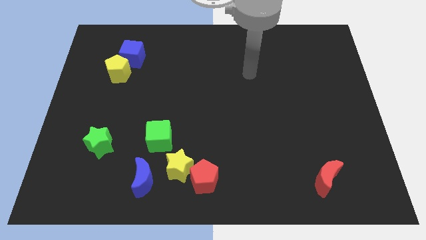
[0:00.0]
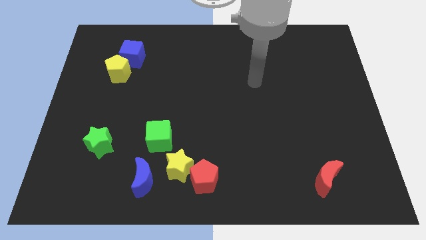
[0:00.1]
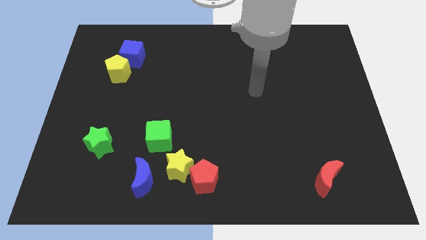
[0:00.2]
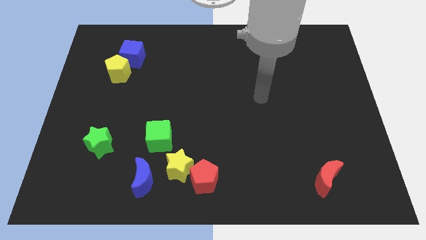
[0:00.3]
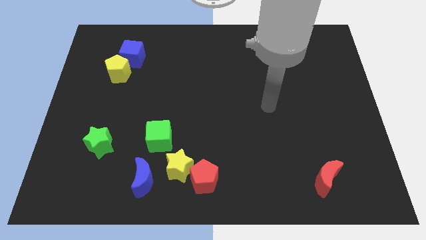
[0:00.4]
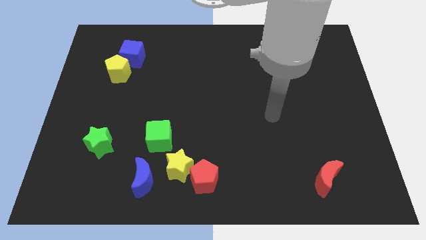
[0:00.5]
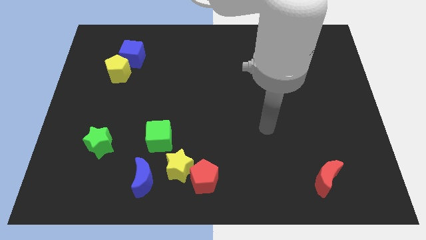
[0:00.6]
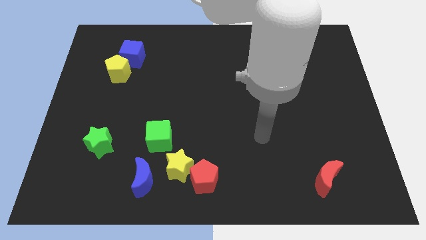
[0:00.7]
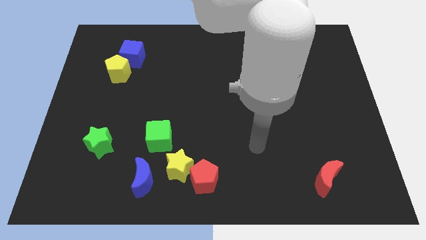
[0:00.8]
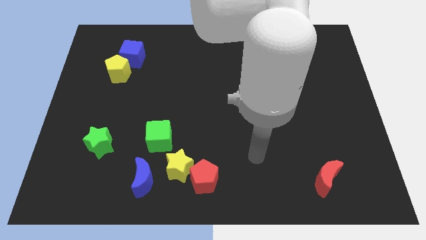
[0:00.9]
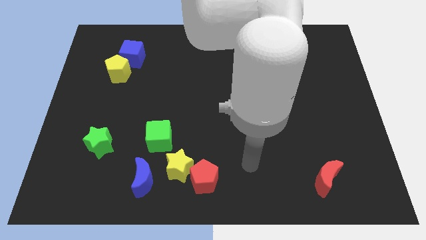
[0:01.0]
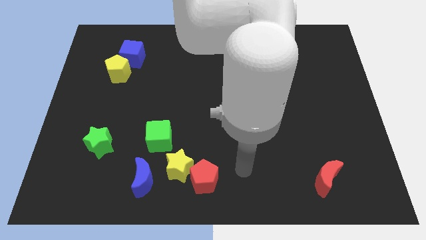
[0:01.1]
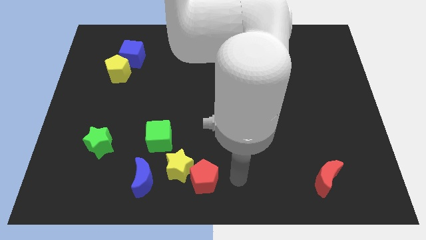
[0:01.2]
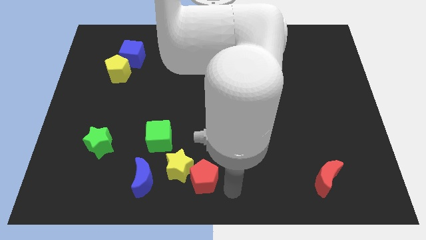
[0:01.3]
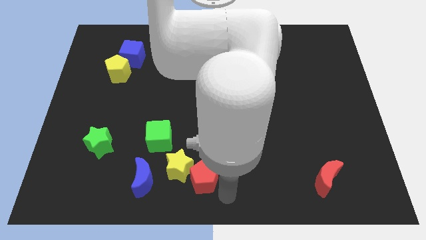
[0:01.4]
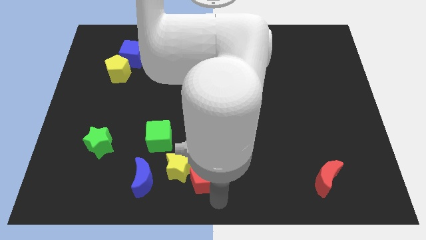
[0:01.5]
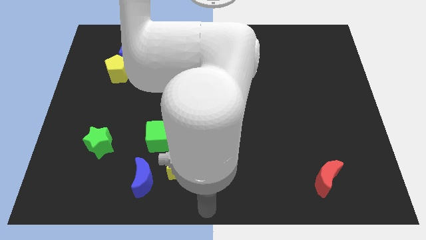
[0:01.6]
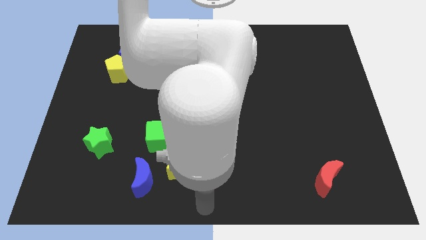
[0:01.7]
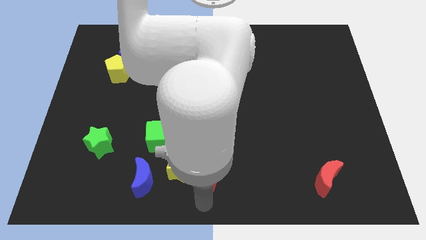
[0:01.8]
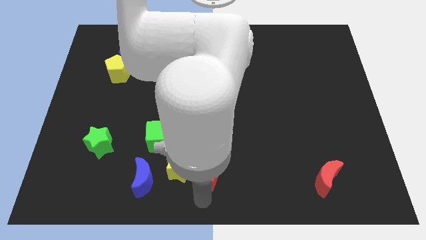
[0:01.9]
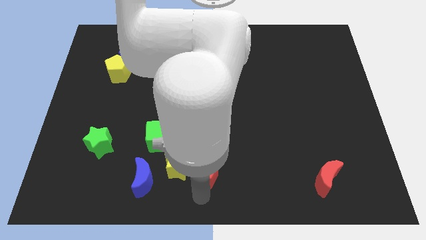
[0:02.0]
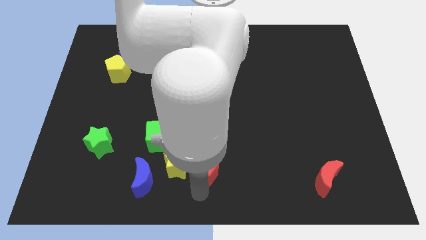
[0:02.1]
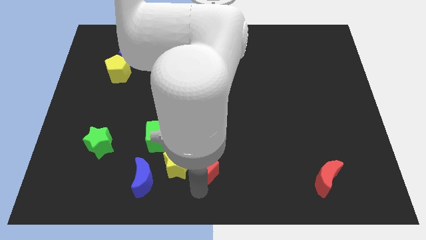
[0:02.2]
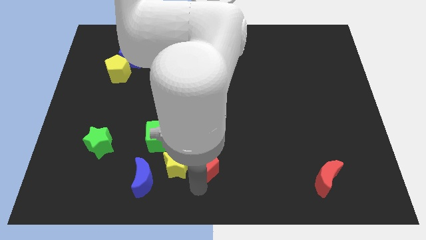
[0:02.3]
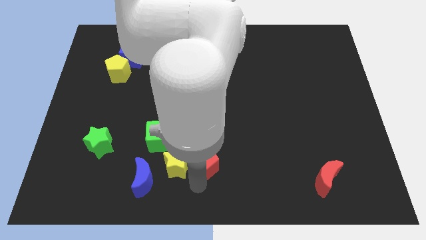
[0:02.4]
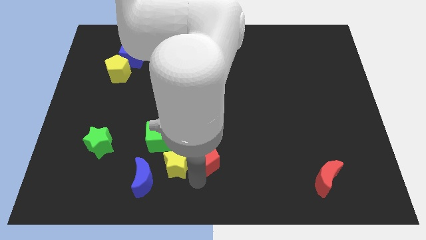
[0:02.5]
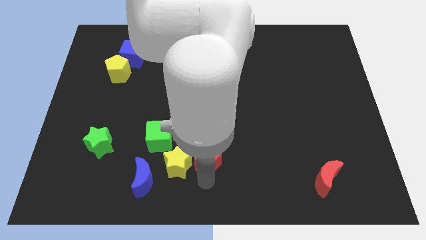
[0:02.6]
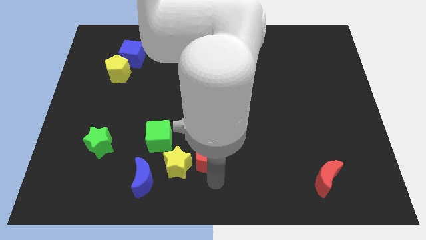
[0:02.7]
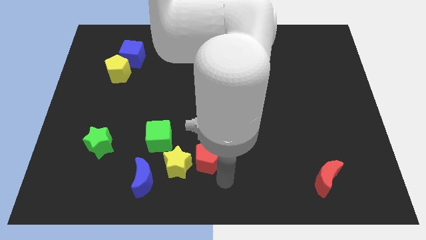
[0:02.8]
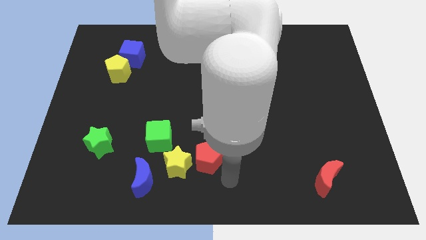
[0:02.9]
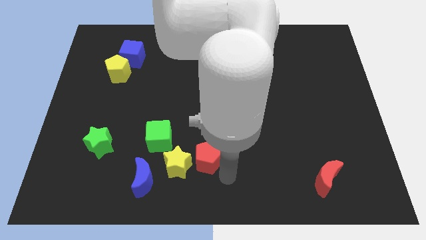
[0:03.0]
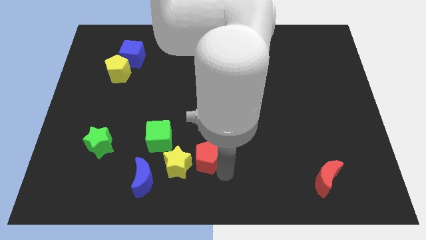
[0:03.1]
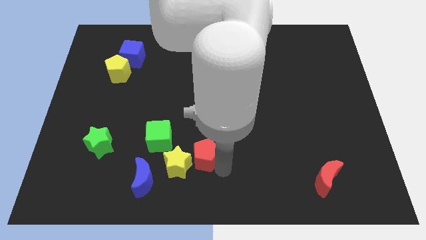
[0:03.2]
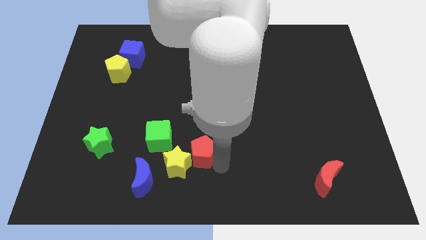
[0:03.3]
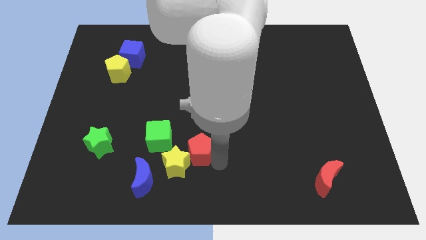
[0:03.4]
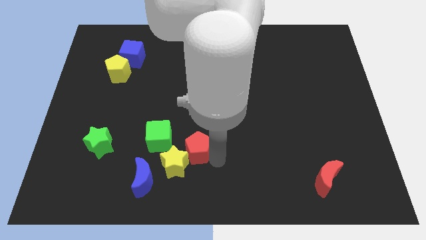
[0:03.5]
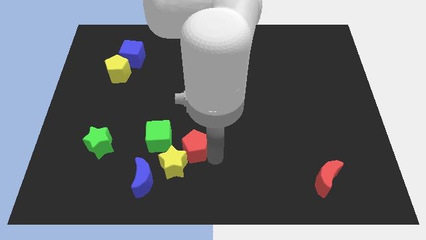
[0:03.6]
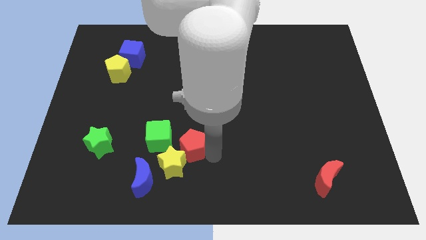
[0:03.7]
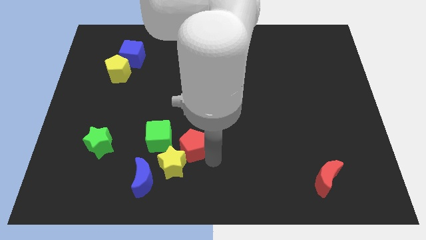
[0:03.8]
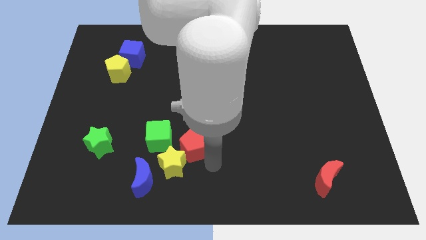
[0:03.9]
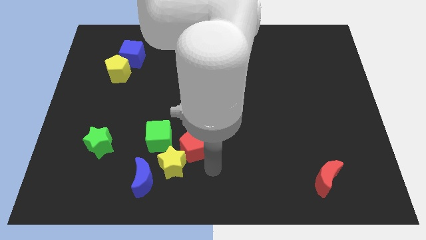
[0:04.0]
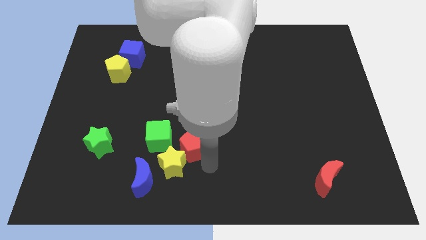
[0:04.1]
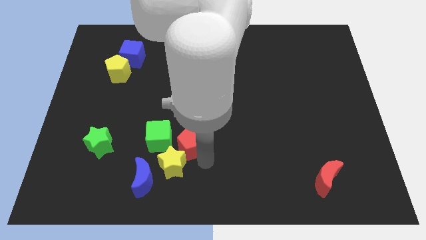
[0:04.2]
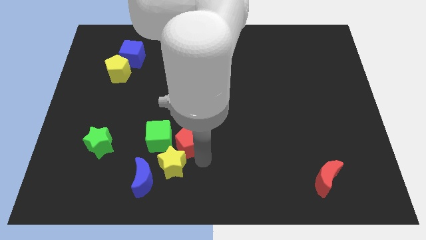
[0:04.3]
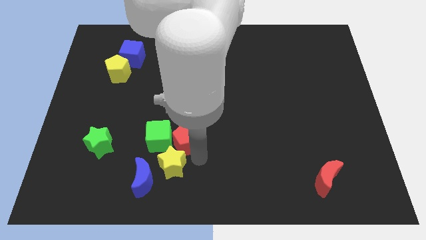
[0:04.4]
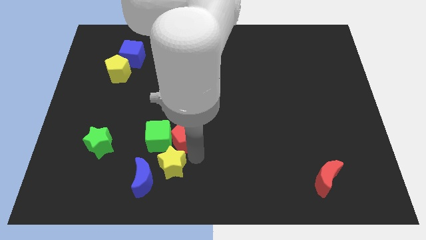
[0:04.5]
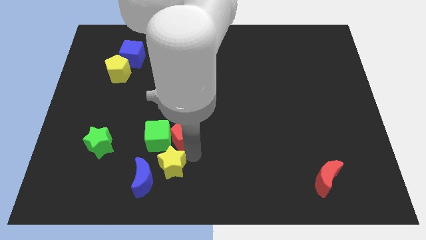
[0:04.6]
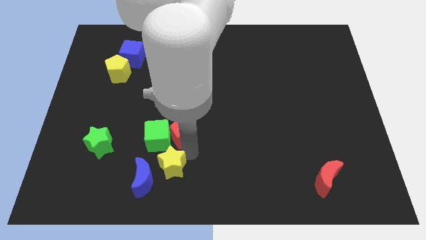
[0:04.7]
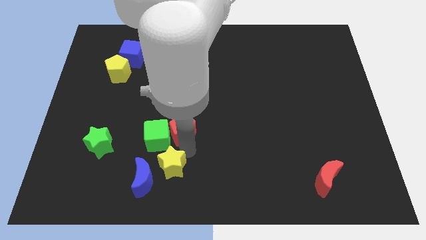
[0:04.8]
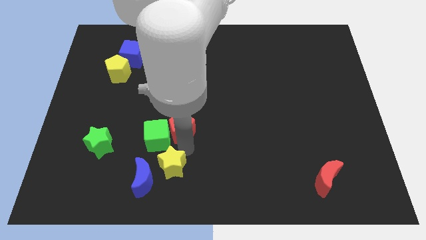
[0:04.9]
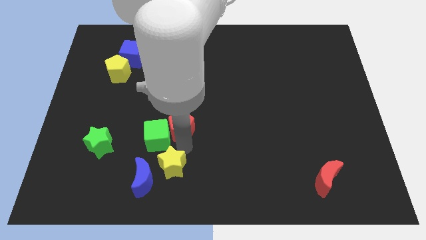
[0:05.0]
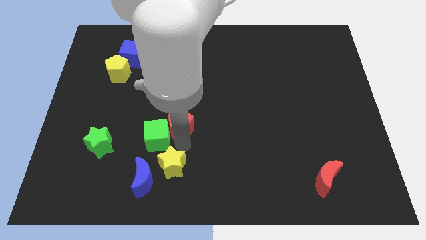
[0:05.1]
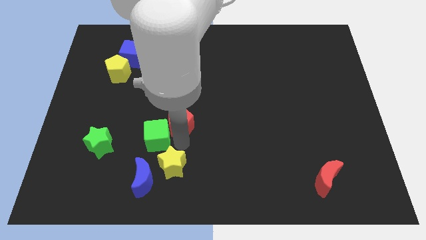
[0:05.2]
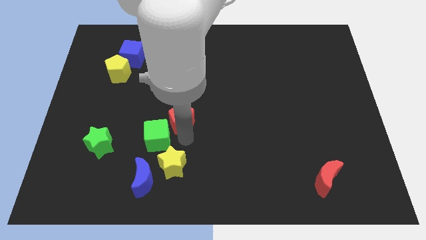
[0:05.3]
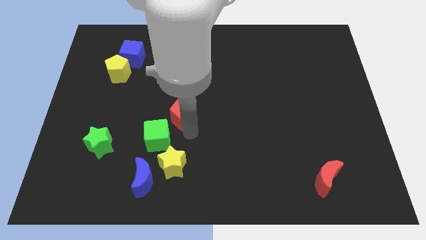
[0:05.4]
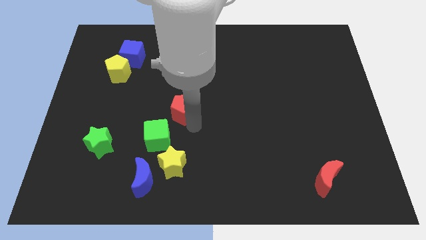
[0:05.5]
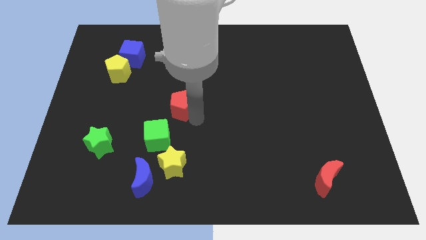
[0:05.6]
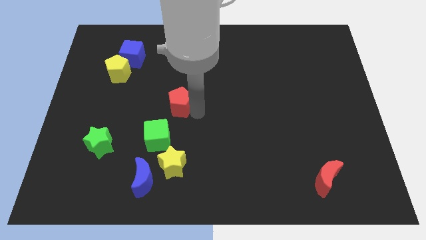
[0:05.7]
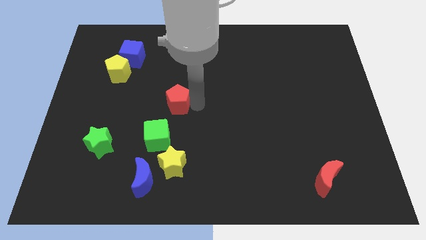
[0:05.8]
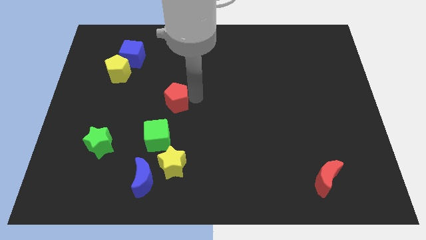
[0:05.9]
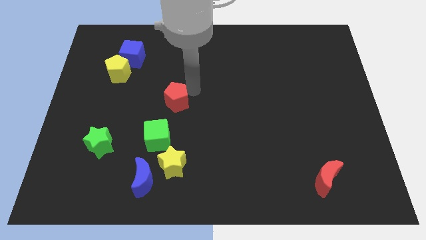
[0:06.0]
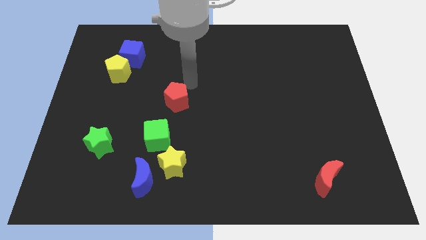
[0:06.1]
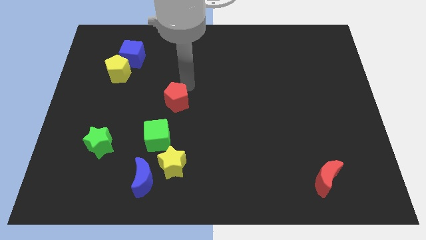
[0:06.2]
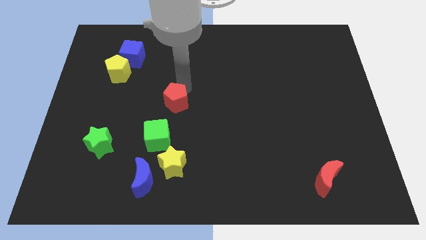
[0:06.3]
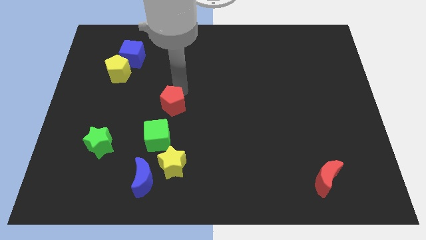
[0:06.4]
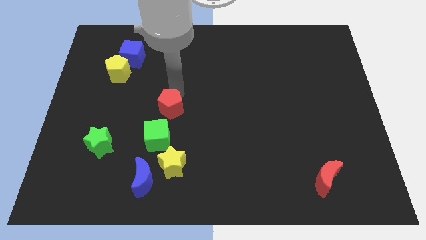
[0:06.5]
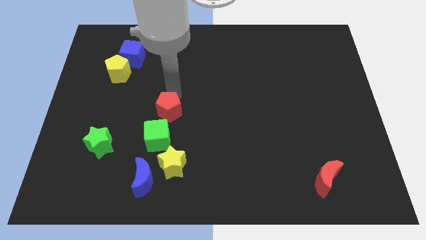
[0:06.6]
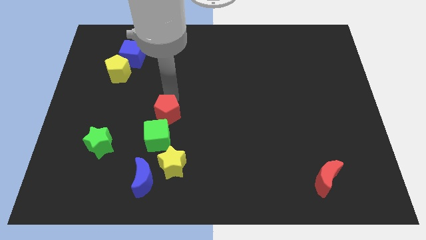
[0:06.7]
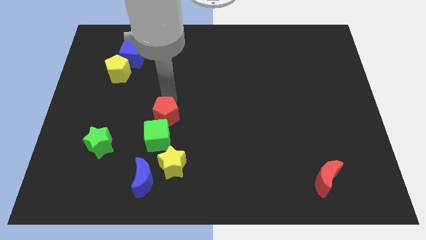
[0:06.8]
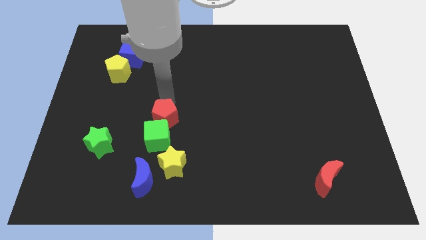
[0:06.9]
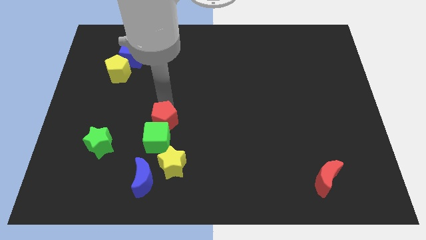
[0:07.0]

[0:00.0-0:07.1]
slide the red pentagon above the blue moon

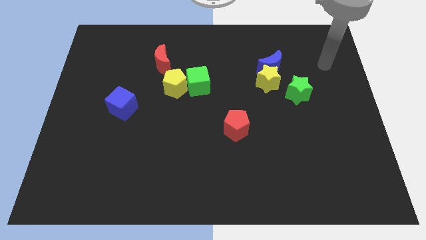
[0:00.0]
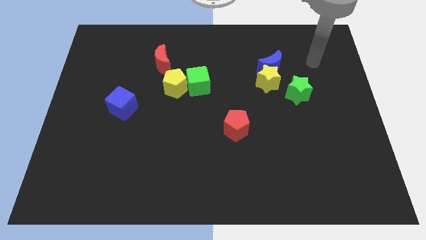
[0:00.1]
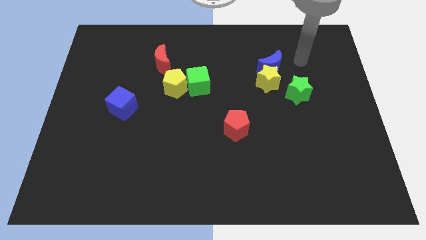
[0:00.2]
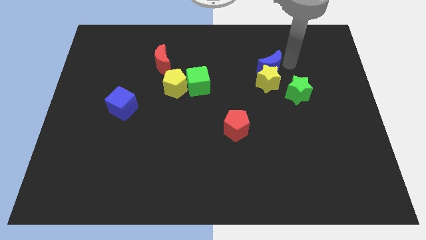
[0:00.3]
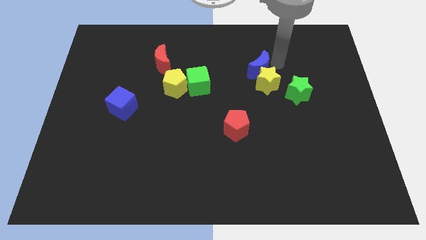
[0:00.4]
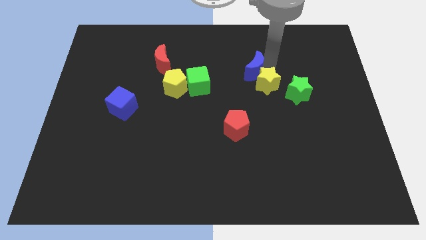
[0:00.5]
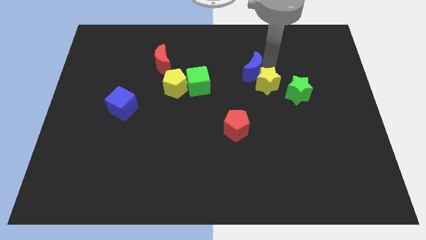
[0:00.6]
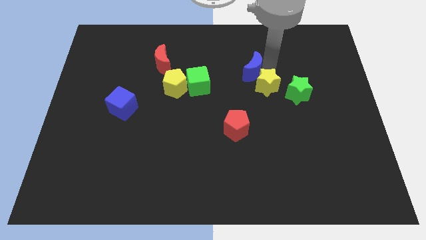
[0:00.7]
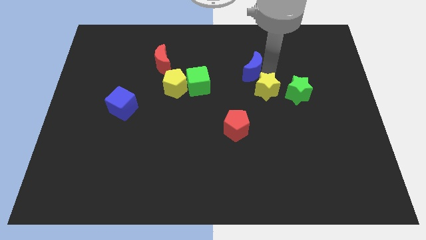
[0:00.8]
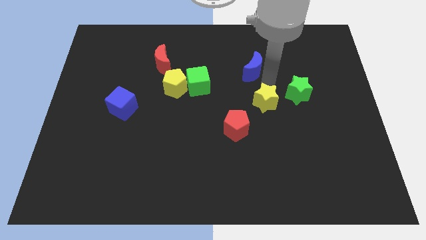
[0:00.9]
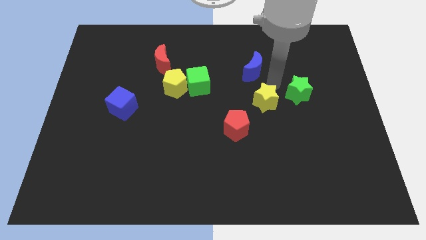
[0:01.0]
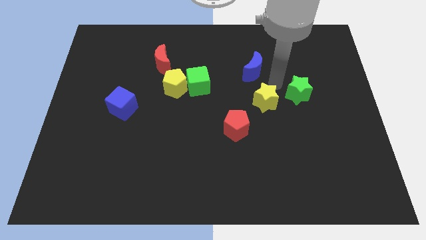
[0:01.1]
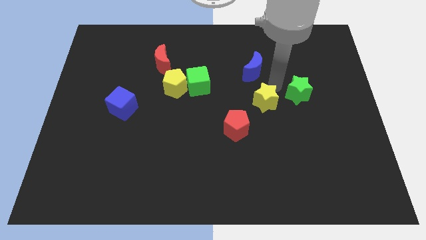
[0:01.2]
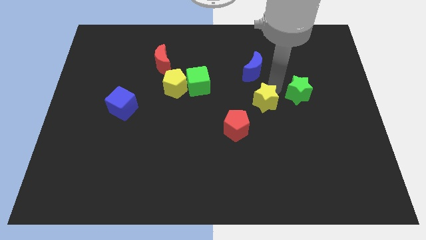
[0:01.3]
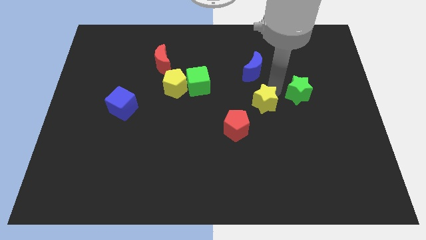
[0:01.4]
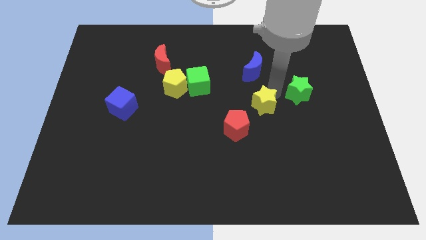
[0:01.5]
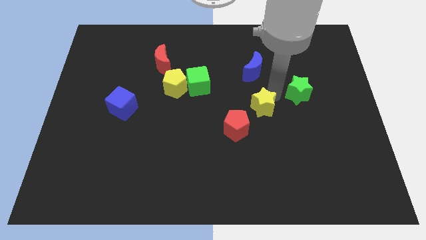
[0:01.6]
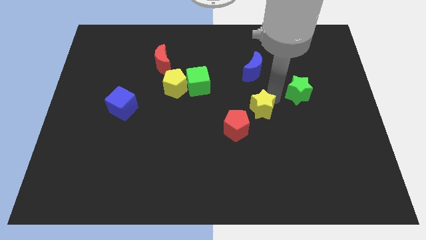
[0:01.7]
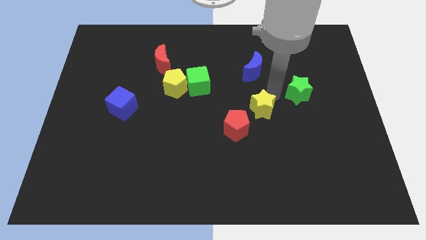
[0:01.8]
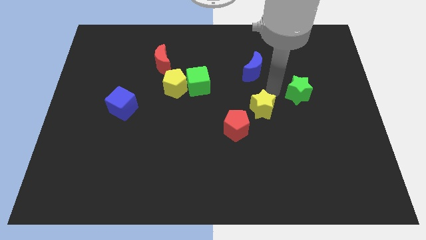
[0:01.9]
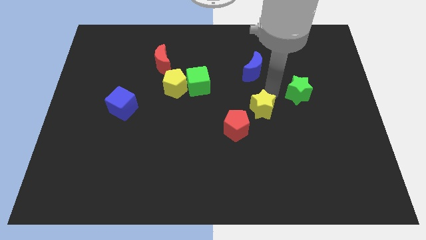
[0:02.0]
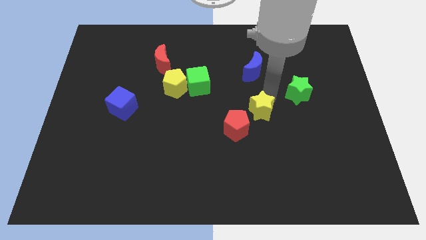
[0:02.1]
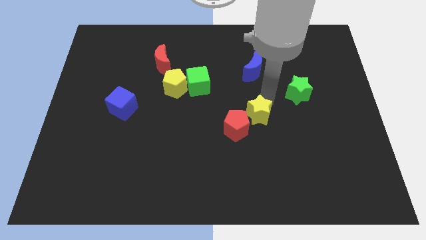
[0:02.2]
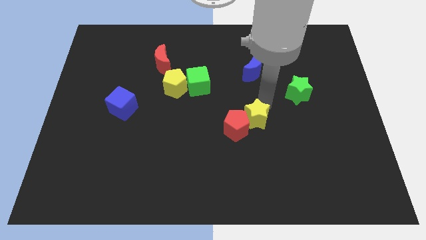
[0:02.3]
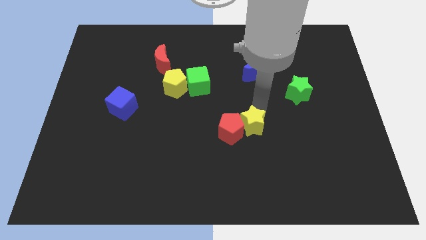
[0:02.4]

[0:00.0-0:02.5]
move the yellow star to the bottom right side of the red pentagon
